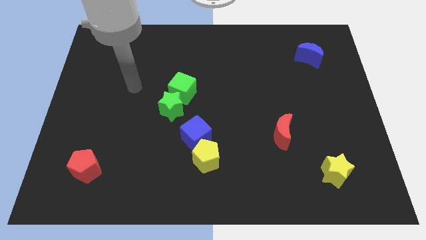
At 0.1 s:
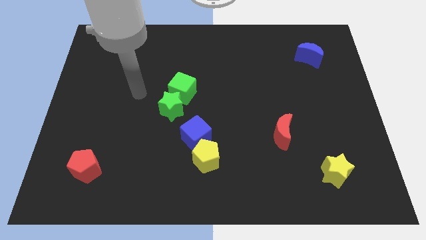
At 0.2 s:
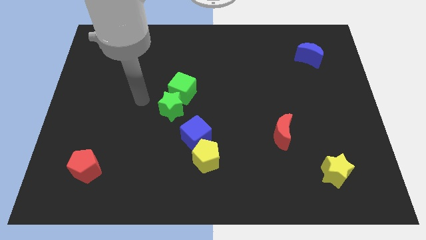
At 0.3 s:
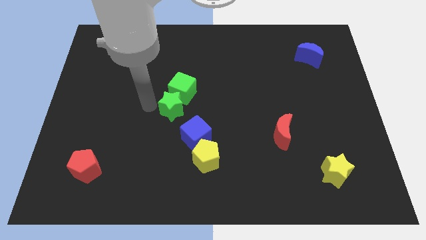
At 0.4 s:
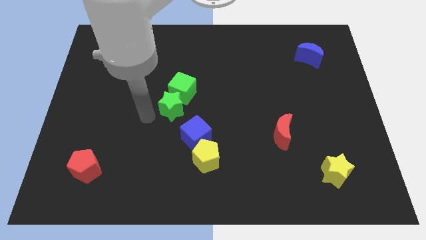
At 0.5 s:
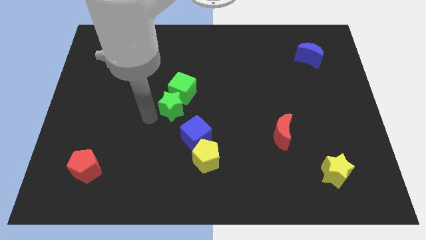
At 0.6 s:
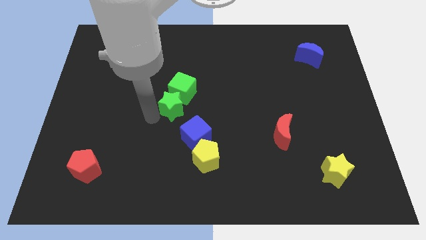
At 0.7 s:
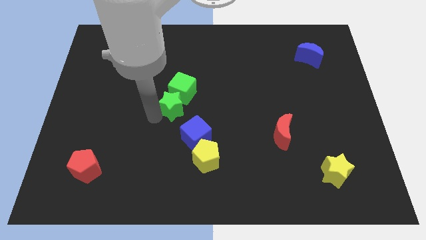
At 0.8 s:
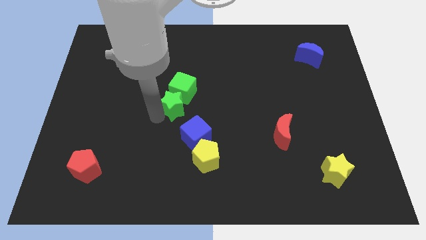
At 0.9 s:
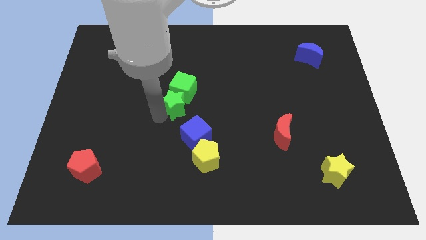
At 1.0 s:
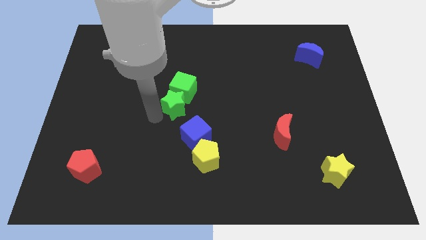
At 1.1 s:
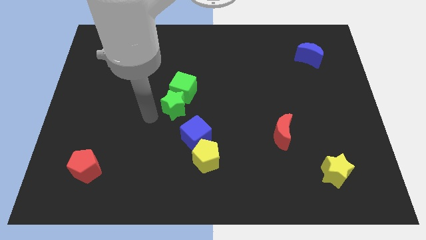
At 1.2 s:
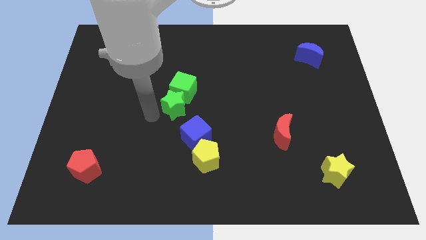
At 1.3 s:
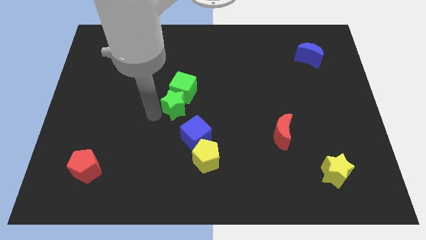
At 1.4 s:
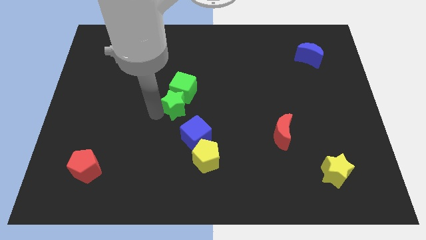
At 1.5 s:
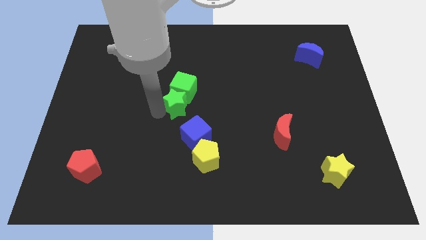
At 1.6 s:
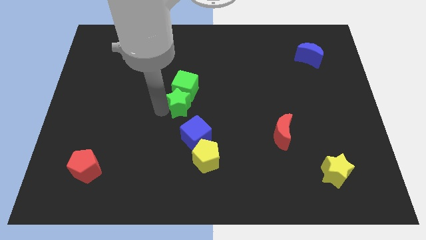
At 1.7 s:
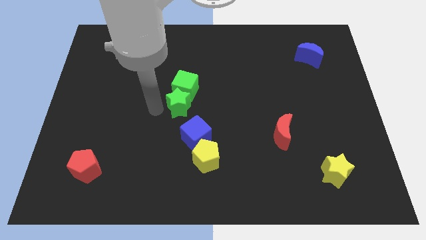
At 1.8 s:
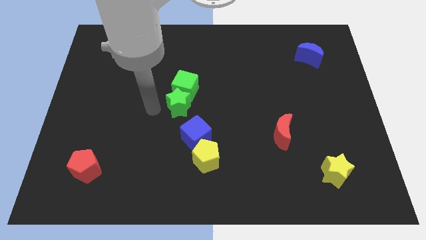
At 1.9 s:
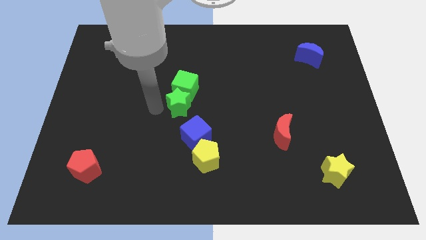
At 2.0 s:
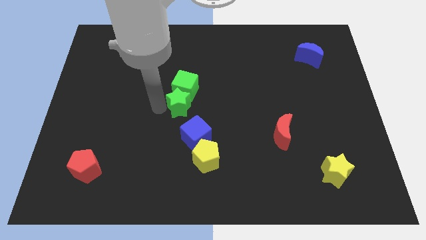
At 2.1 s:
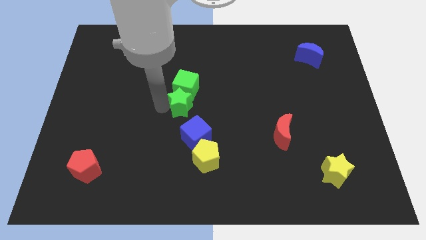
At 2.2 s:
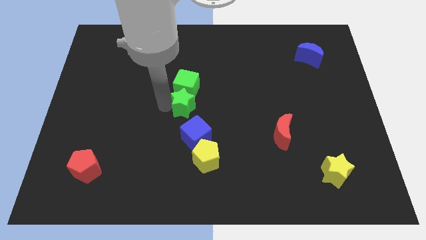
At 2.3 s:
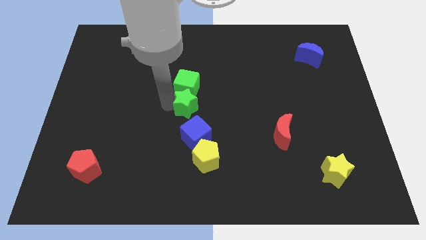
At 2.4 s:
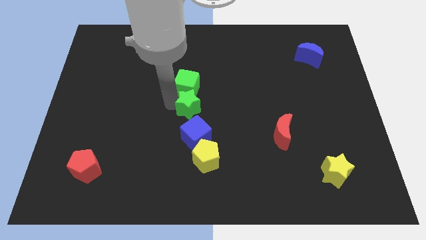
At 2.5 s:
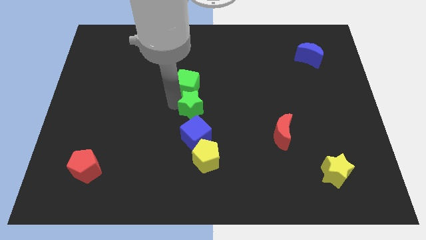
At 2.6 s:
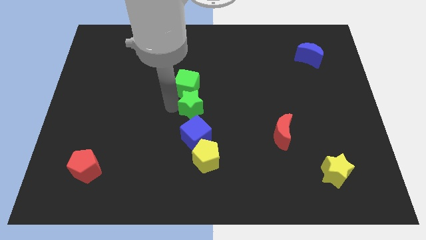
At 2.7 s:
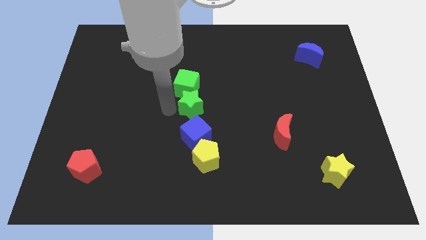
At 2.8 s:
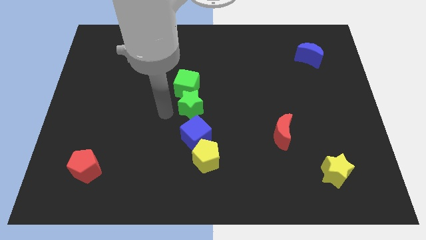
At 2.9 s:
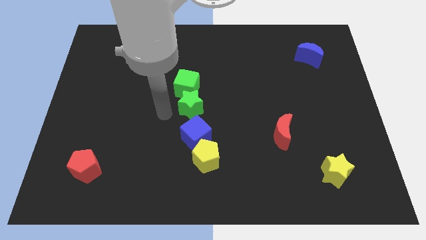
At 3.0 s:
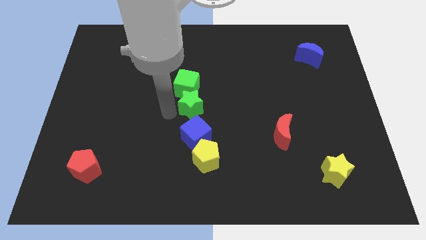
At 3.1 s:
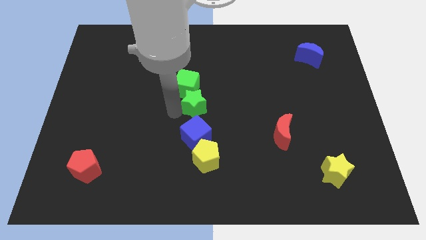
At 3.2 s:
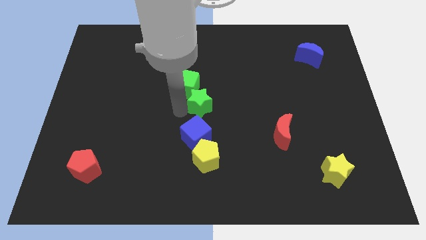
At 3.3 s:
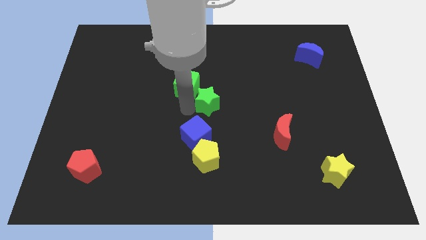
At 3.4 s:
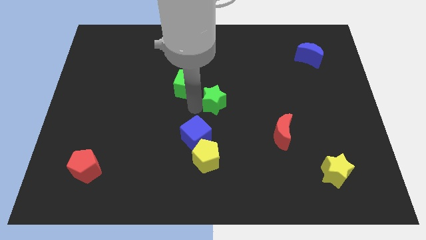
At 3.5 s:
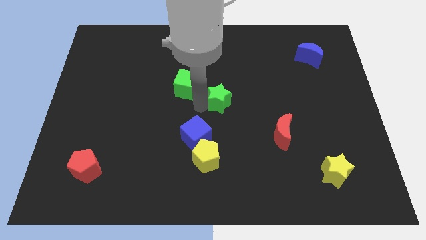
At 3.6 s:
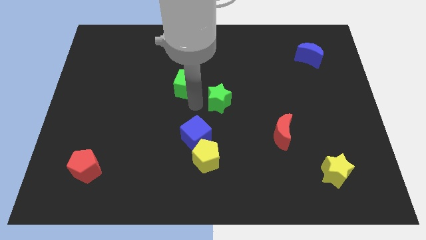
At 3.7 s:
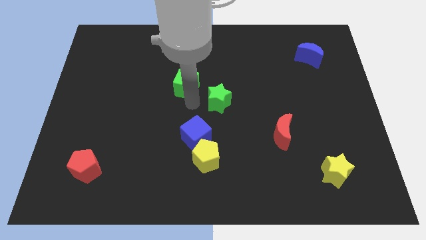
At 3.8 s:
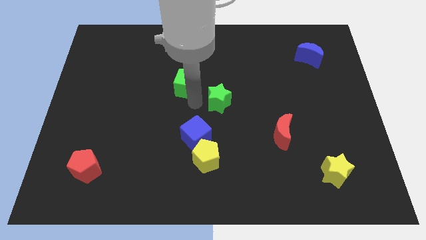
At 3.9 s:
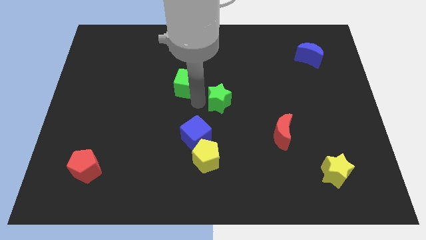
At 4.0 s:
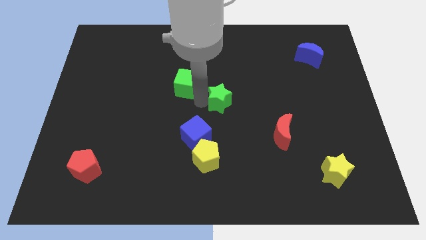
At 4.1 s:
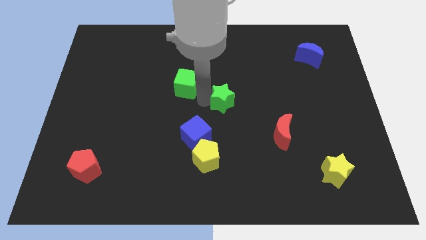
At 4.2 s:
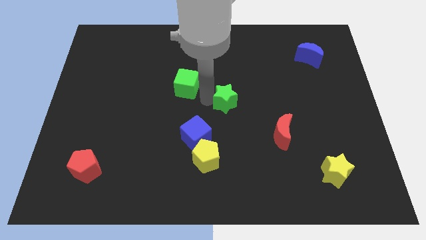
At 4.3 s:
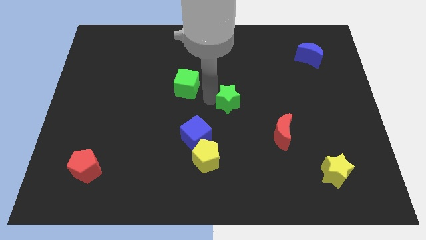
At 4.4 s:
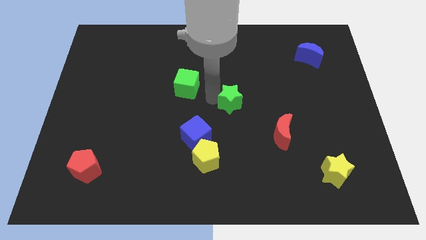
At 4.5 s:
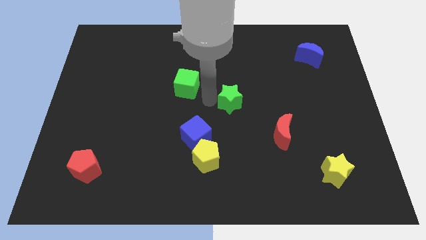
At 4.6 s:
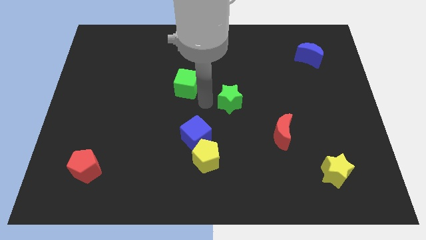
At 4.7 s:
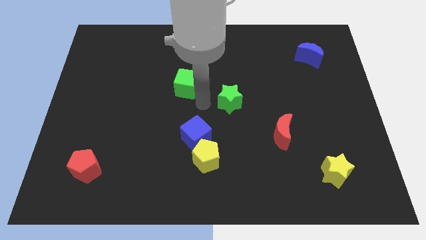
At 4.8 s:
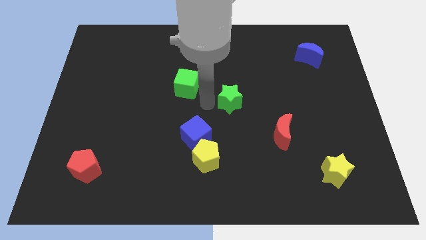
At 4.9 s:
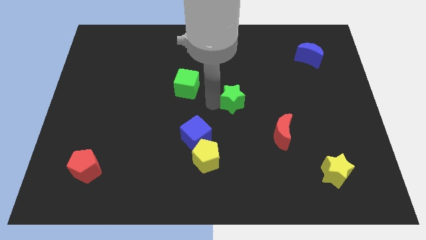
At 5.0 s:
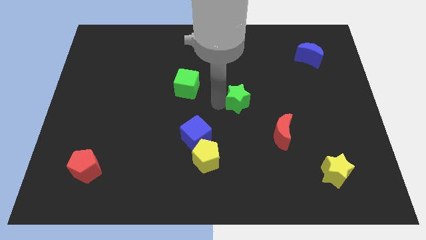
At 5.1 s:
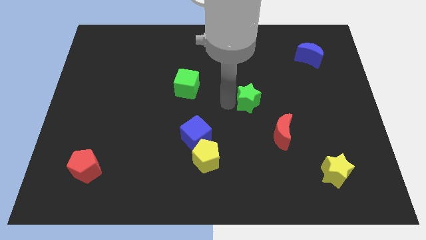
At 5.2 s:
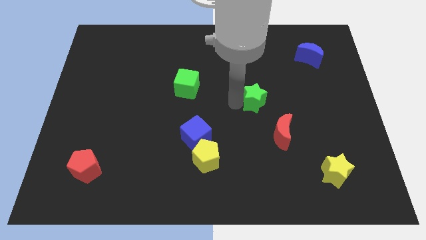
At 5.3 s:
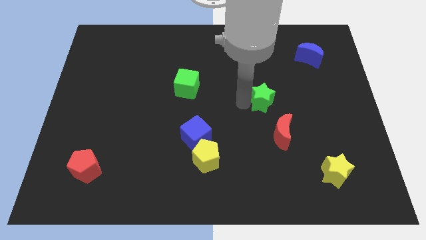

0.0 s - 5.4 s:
push the green star to the top of the red moon

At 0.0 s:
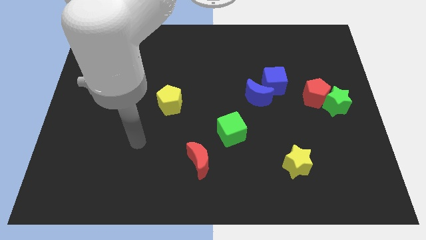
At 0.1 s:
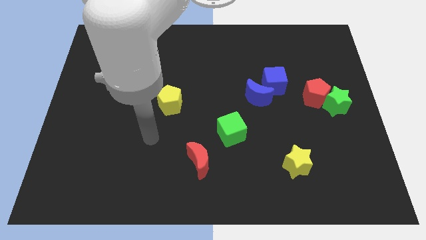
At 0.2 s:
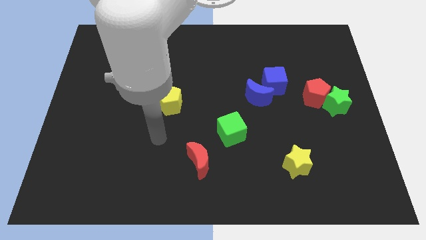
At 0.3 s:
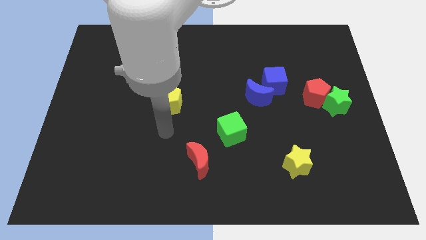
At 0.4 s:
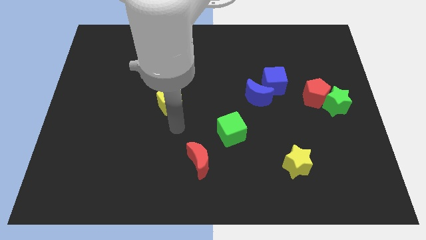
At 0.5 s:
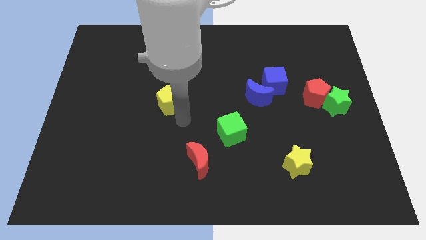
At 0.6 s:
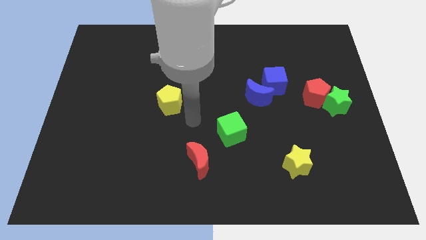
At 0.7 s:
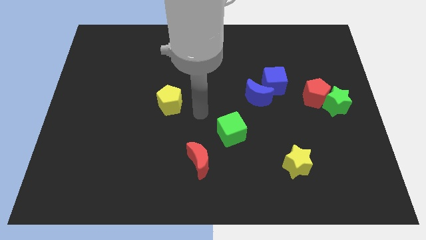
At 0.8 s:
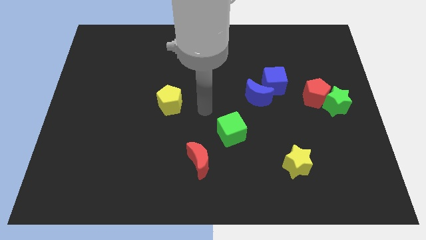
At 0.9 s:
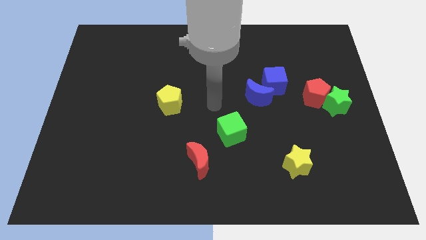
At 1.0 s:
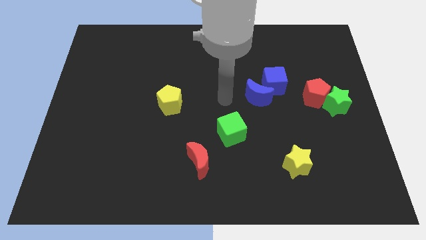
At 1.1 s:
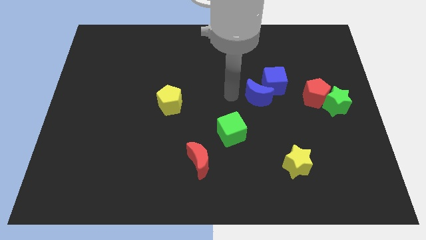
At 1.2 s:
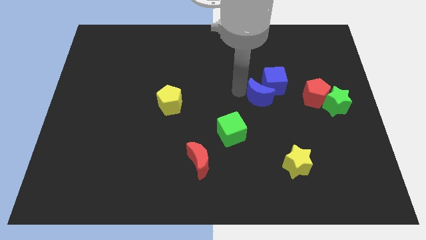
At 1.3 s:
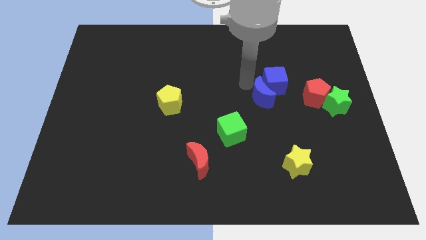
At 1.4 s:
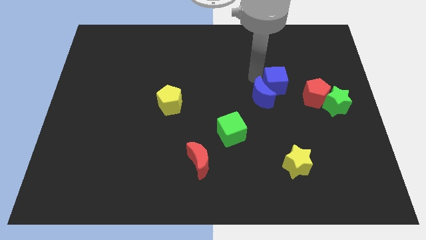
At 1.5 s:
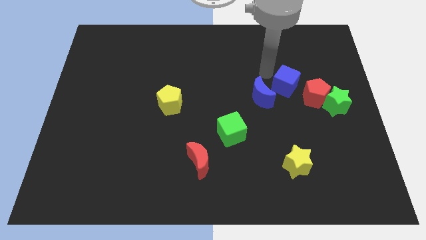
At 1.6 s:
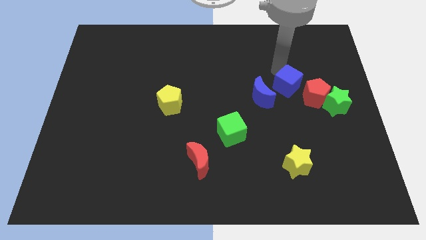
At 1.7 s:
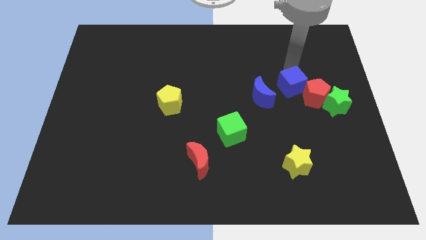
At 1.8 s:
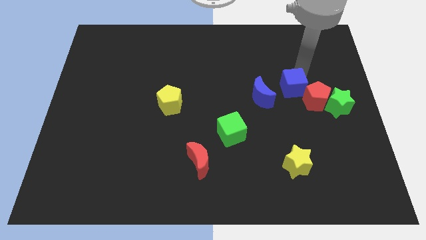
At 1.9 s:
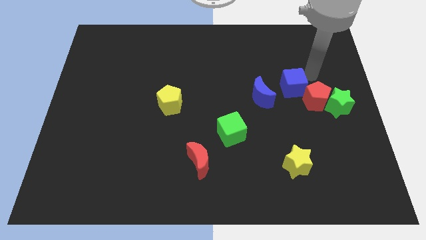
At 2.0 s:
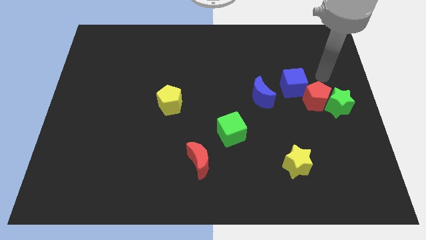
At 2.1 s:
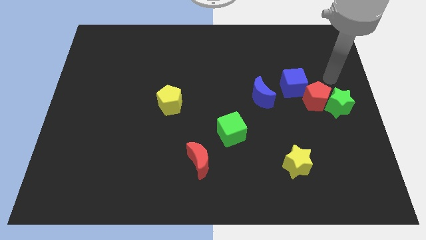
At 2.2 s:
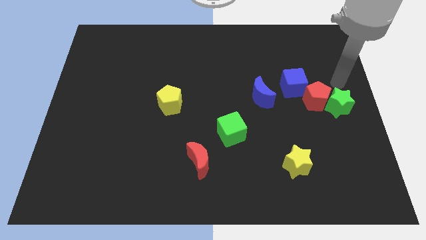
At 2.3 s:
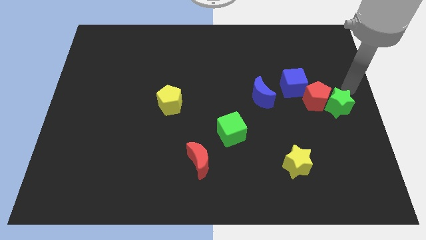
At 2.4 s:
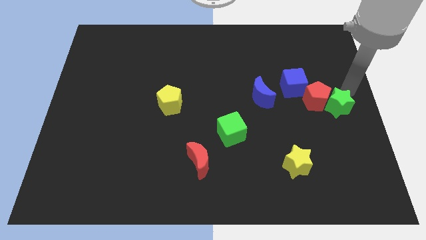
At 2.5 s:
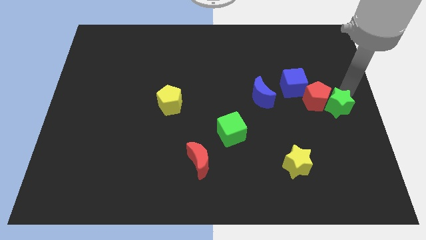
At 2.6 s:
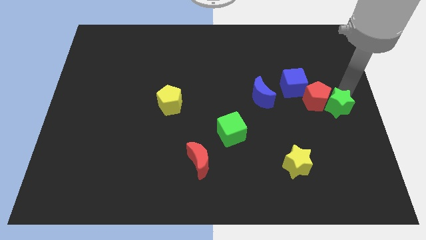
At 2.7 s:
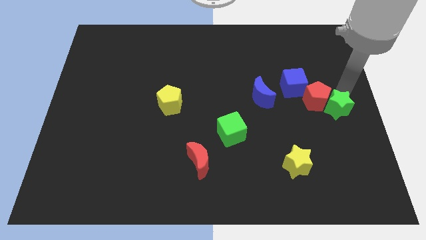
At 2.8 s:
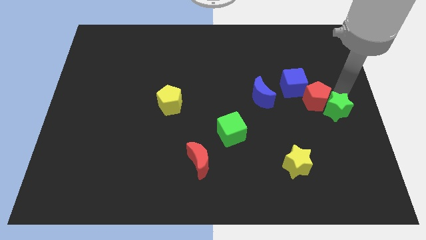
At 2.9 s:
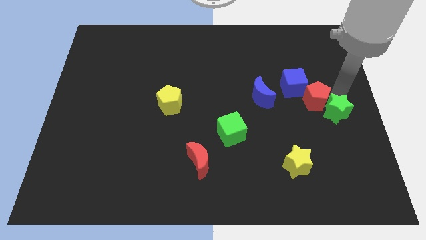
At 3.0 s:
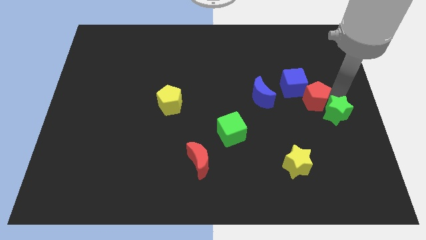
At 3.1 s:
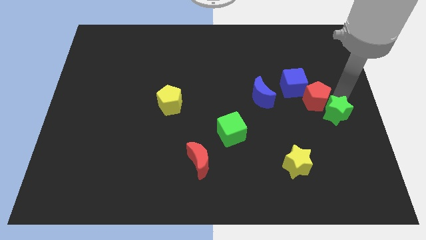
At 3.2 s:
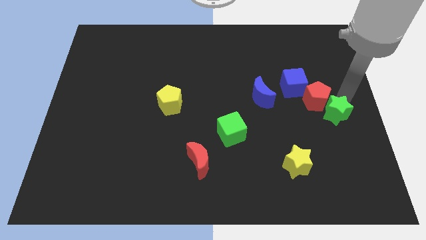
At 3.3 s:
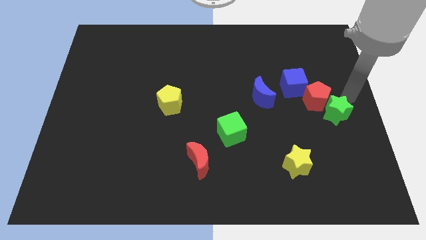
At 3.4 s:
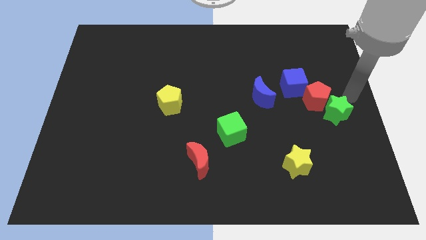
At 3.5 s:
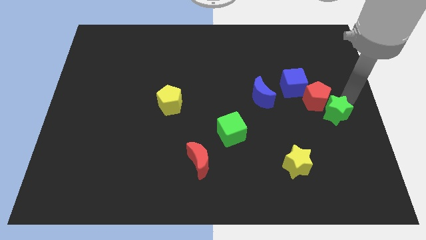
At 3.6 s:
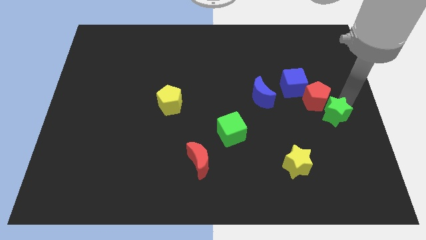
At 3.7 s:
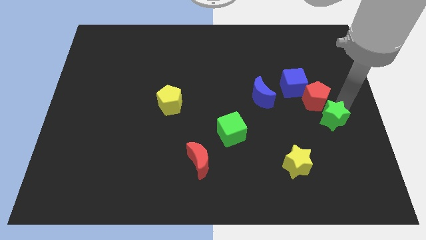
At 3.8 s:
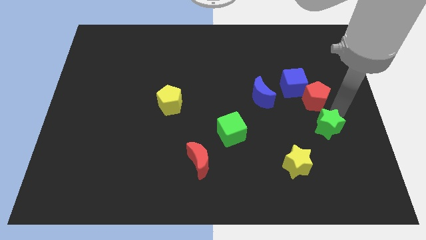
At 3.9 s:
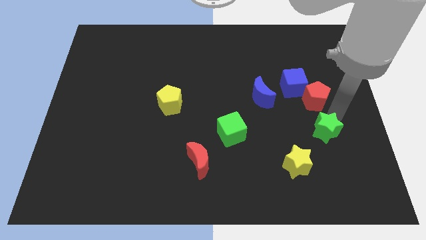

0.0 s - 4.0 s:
slide the green star diagonally up and to the right of the yellow star
